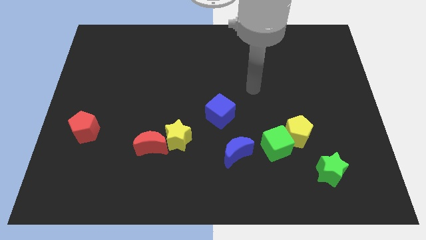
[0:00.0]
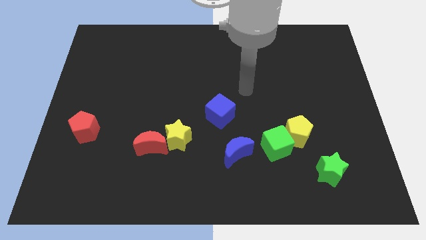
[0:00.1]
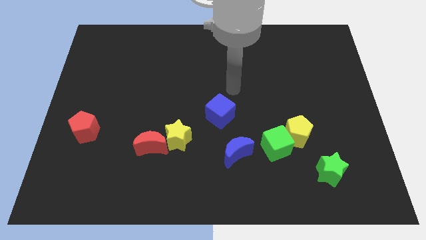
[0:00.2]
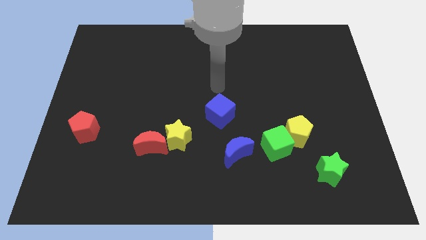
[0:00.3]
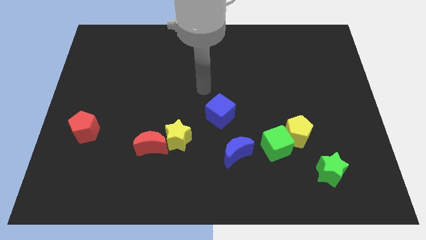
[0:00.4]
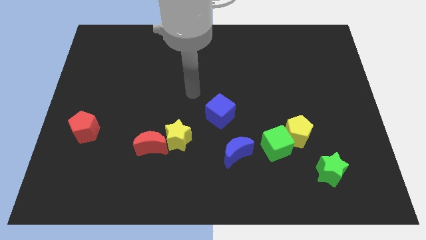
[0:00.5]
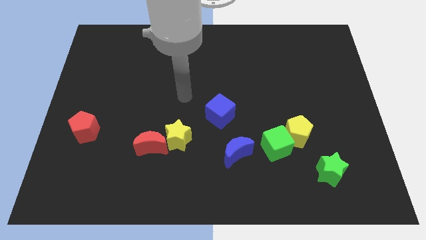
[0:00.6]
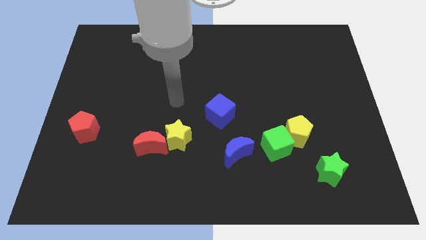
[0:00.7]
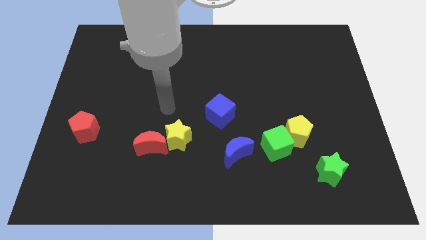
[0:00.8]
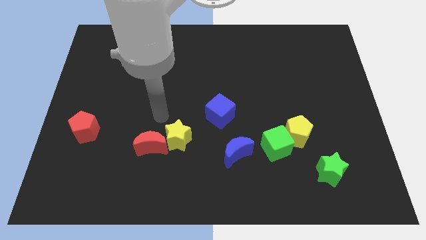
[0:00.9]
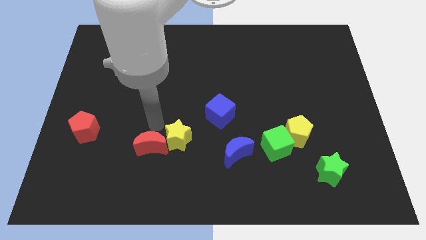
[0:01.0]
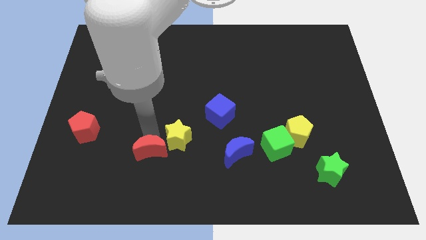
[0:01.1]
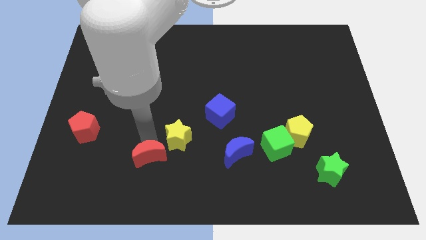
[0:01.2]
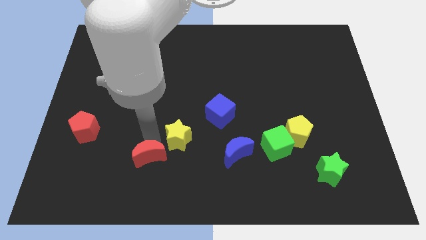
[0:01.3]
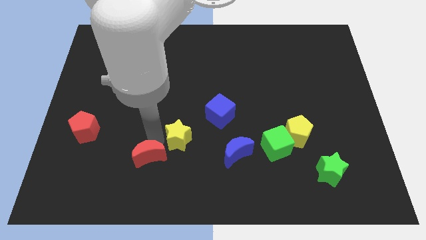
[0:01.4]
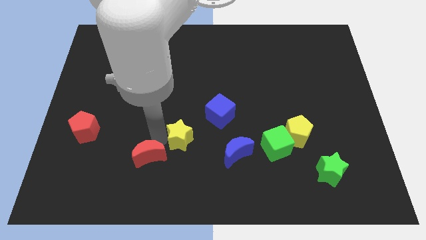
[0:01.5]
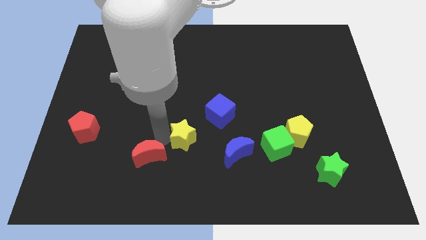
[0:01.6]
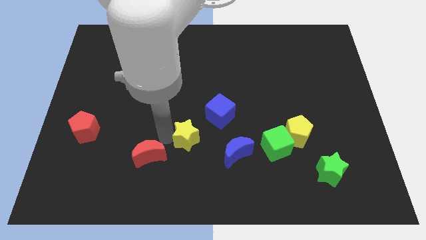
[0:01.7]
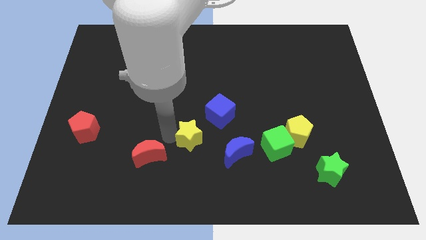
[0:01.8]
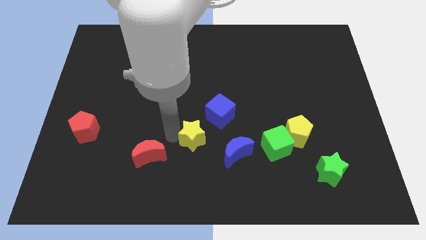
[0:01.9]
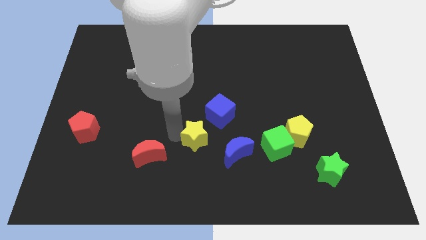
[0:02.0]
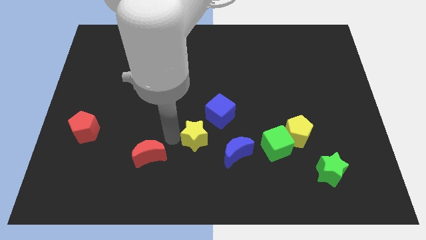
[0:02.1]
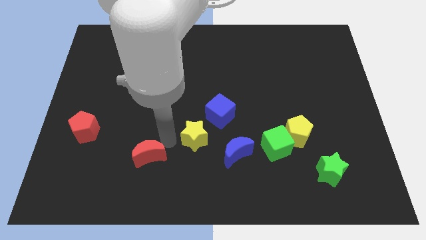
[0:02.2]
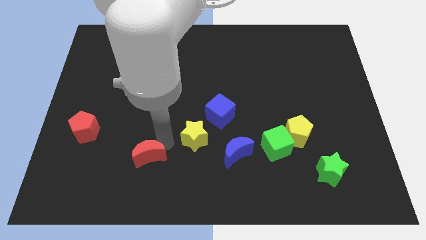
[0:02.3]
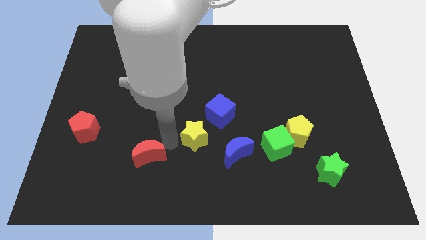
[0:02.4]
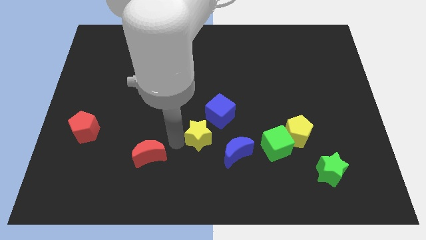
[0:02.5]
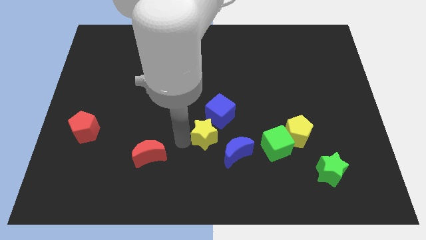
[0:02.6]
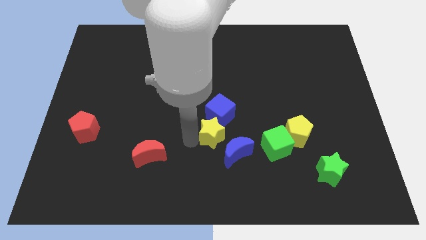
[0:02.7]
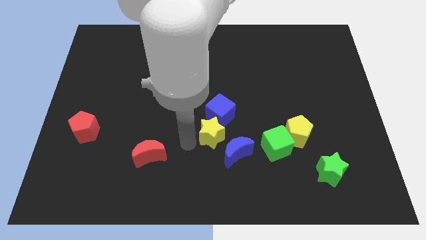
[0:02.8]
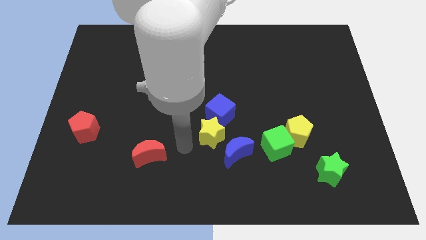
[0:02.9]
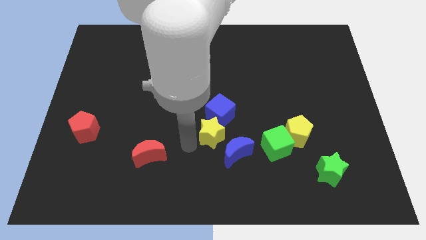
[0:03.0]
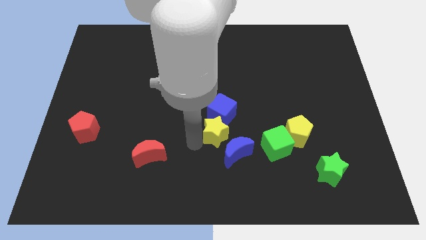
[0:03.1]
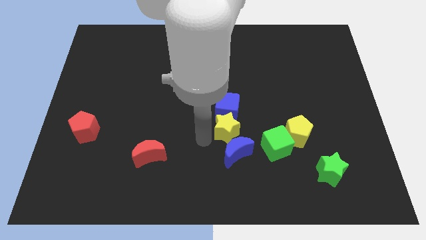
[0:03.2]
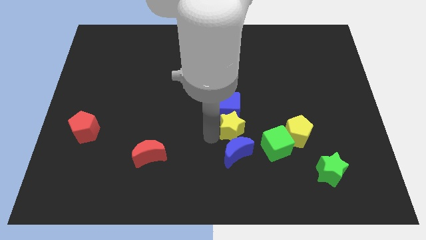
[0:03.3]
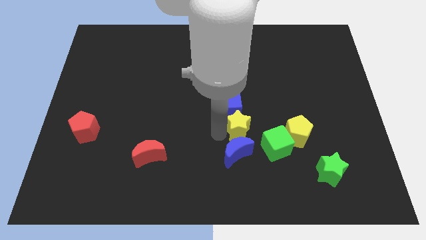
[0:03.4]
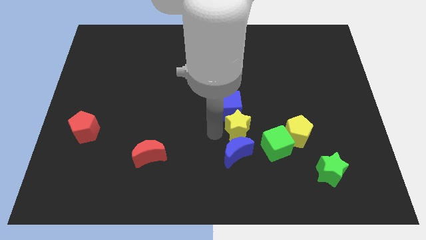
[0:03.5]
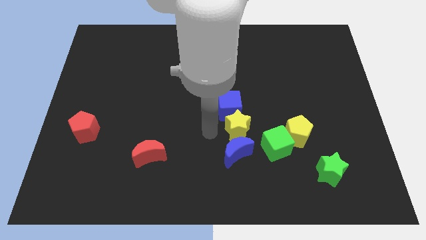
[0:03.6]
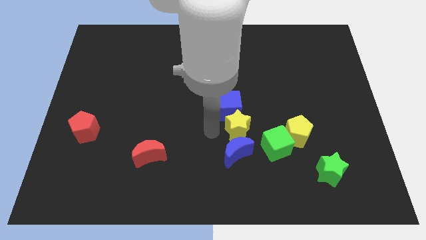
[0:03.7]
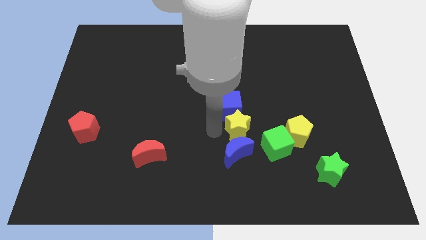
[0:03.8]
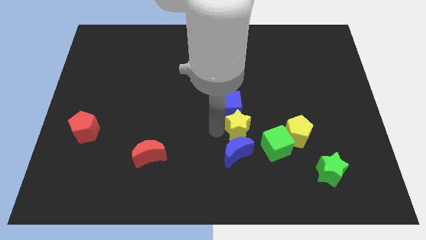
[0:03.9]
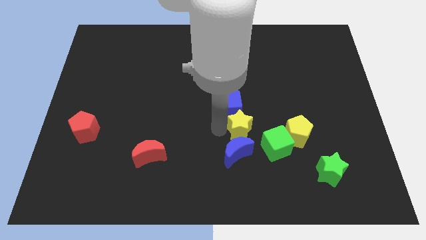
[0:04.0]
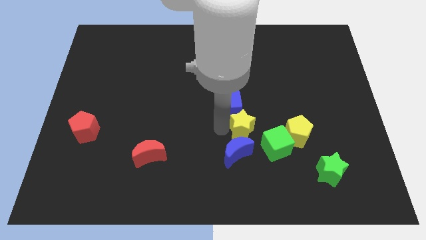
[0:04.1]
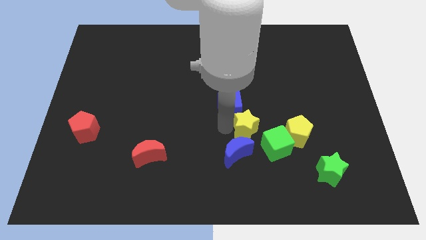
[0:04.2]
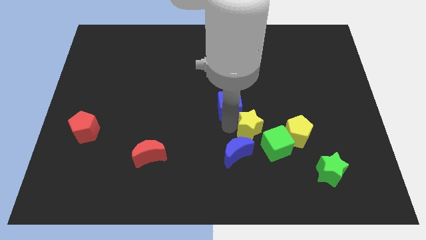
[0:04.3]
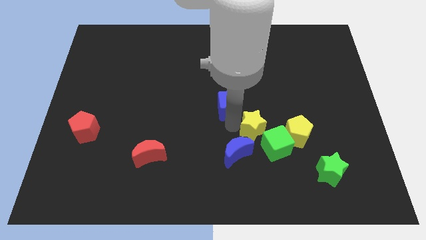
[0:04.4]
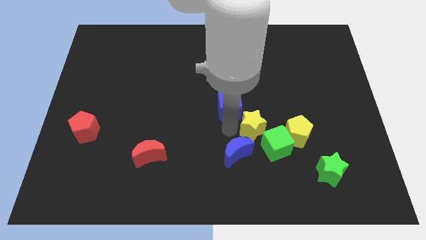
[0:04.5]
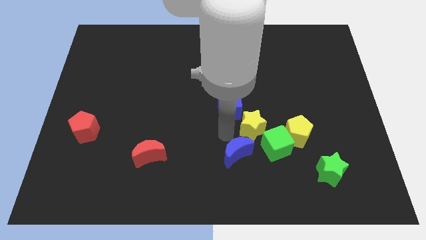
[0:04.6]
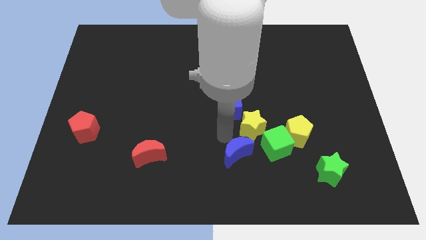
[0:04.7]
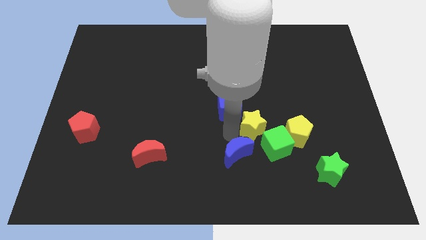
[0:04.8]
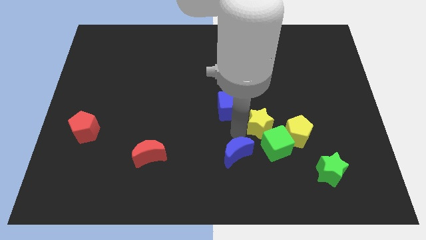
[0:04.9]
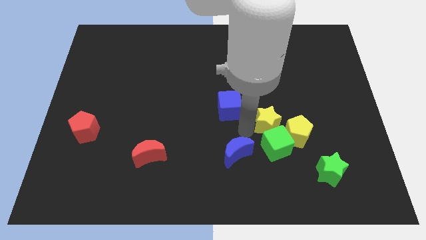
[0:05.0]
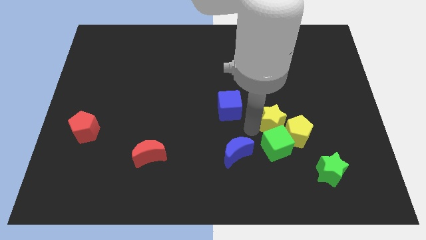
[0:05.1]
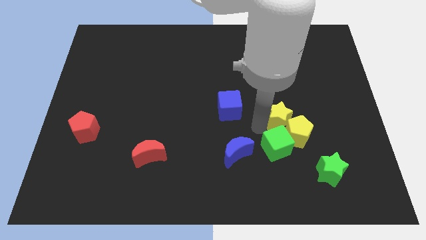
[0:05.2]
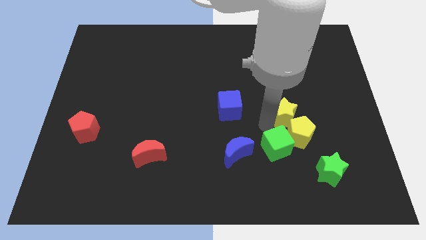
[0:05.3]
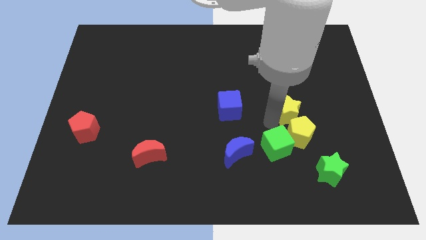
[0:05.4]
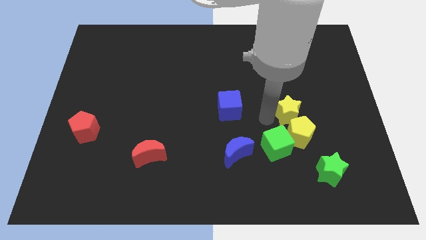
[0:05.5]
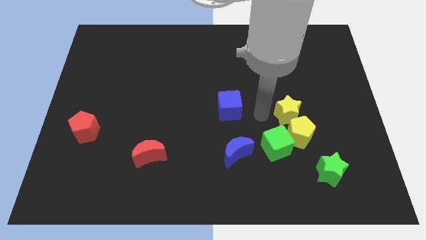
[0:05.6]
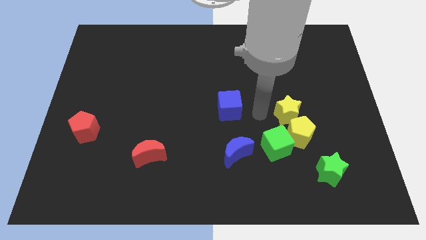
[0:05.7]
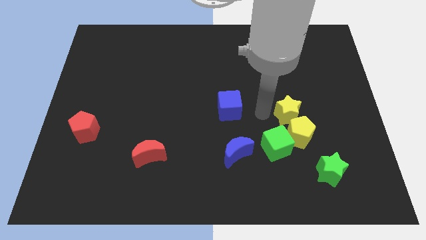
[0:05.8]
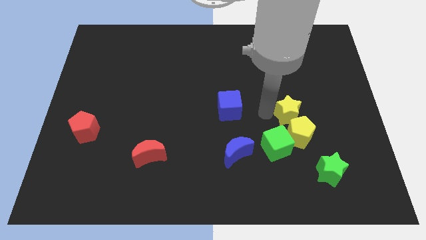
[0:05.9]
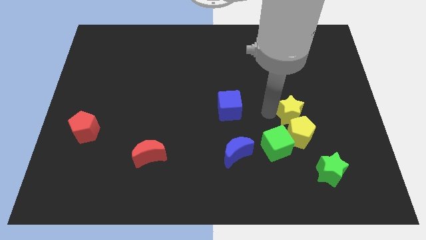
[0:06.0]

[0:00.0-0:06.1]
push the yellow star to the top right of the yellow pentagon
